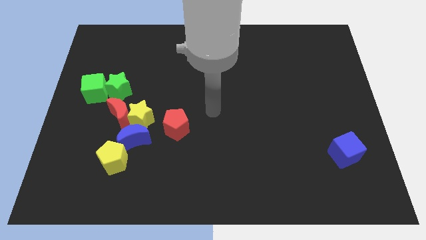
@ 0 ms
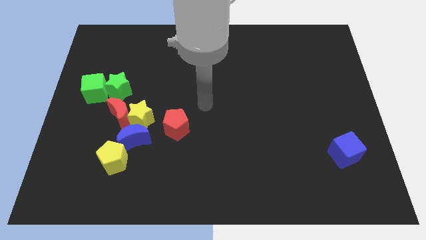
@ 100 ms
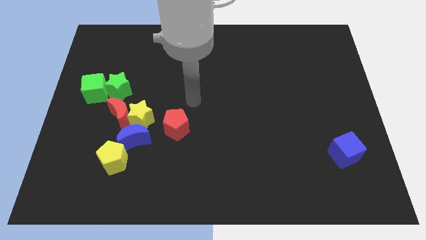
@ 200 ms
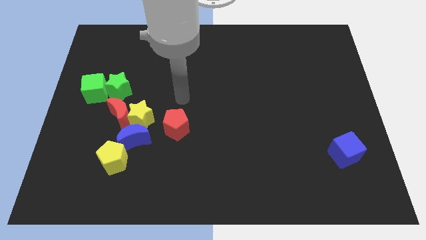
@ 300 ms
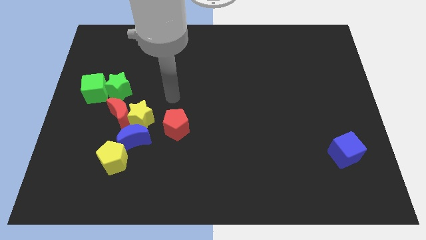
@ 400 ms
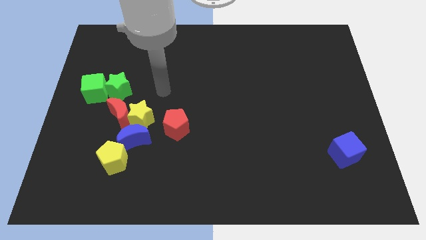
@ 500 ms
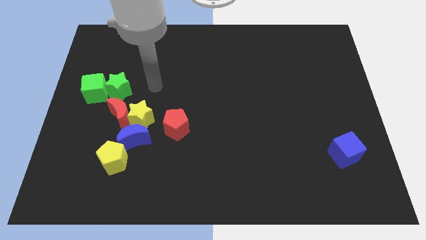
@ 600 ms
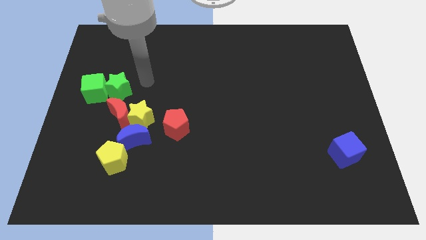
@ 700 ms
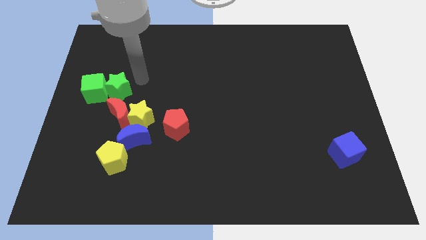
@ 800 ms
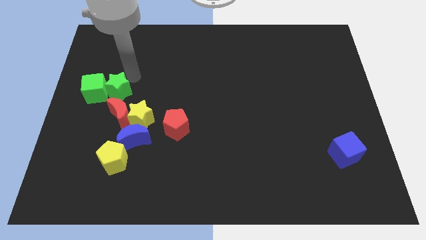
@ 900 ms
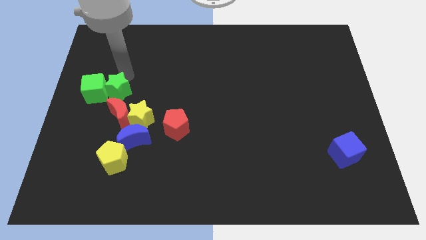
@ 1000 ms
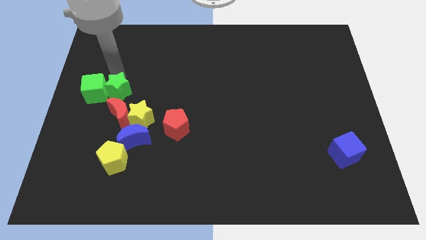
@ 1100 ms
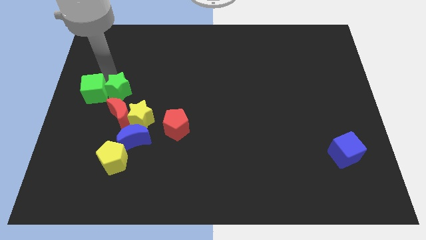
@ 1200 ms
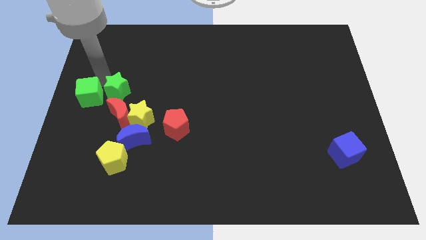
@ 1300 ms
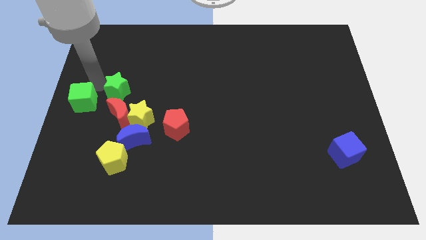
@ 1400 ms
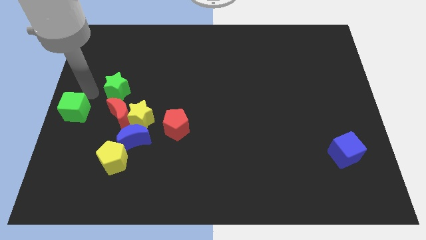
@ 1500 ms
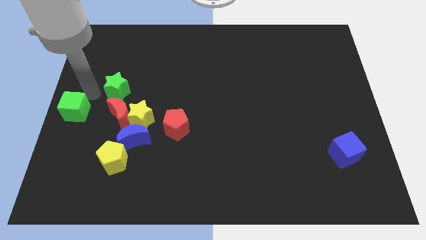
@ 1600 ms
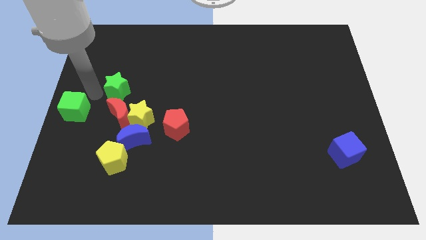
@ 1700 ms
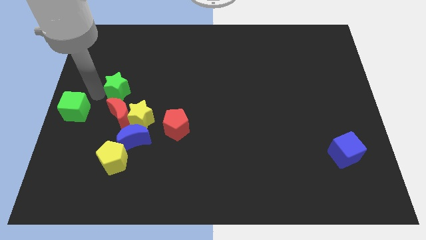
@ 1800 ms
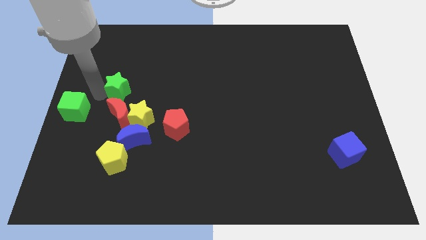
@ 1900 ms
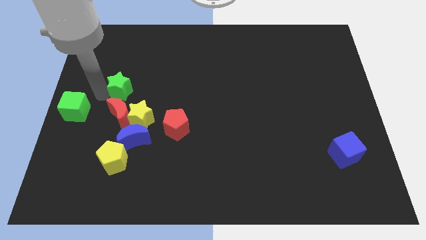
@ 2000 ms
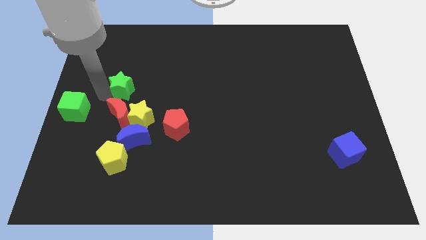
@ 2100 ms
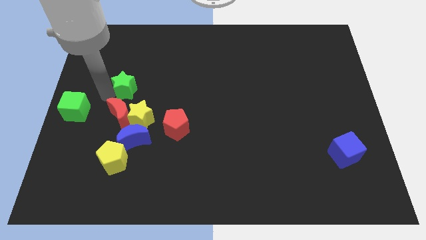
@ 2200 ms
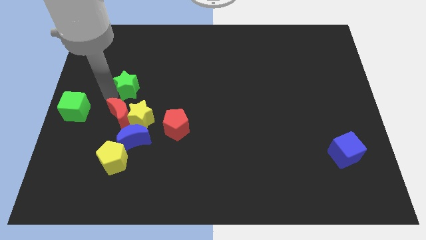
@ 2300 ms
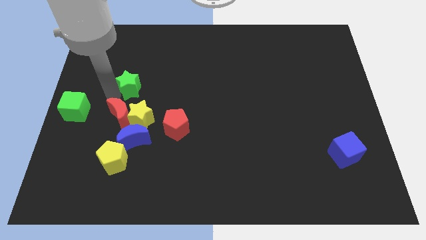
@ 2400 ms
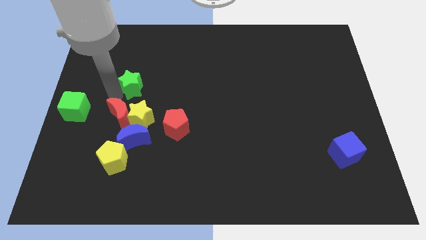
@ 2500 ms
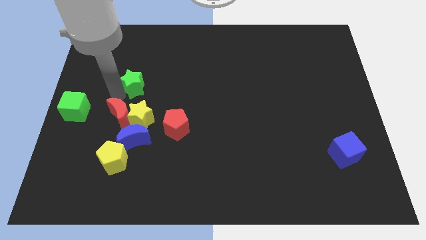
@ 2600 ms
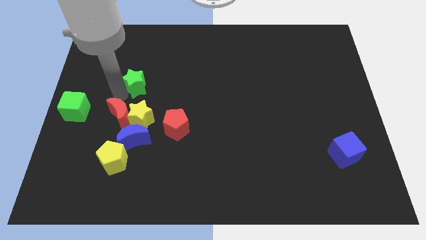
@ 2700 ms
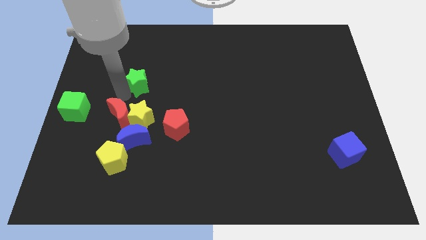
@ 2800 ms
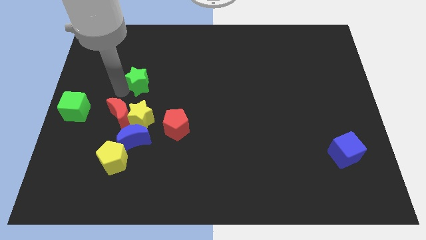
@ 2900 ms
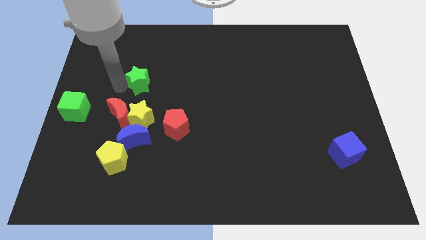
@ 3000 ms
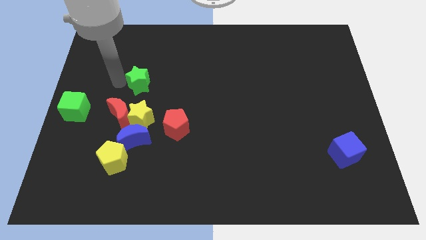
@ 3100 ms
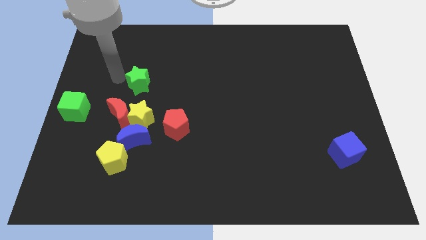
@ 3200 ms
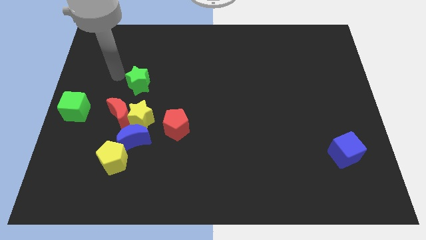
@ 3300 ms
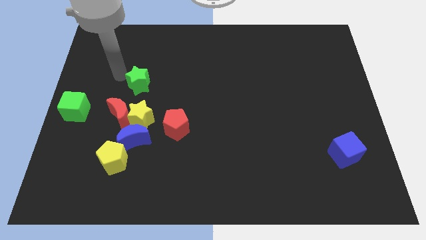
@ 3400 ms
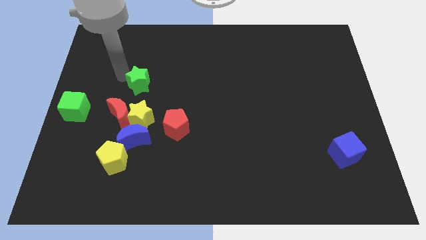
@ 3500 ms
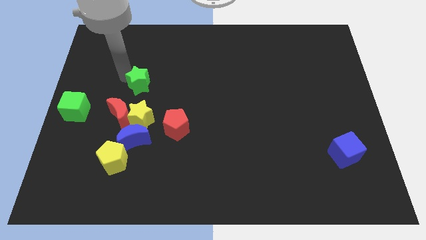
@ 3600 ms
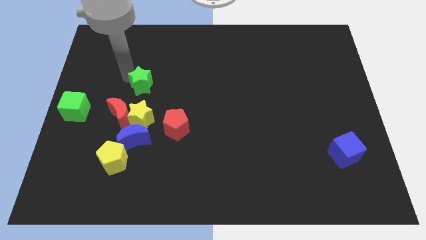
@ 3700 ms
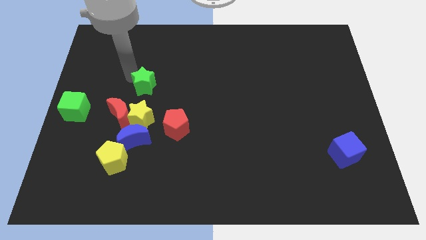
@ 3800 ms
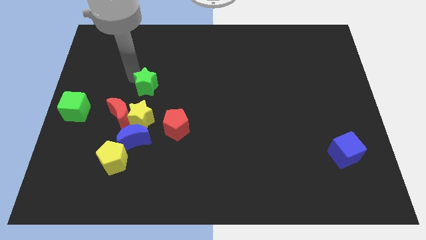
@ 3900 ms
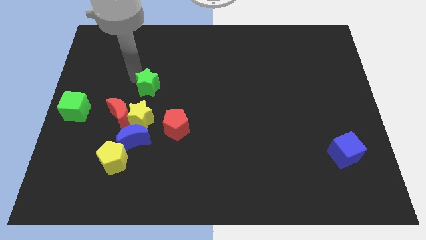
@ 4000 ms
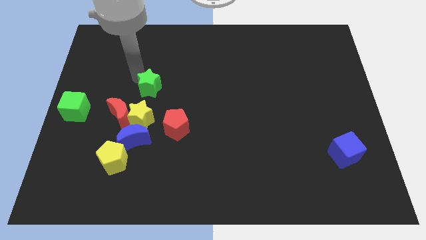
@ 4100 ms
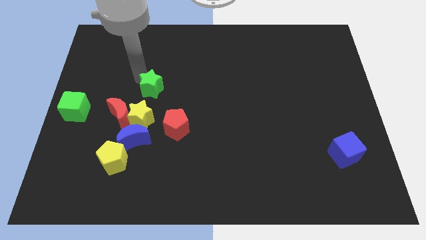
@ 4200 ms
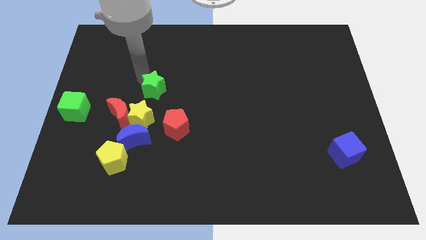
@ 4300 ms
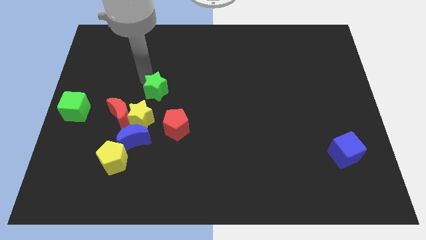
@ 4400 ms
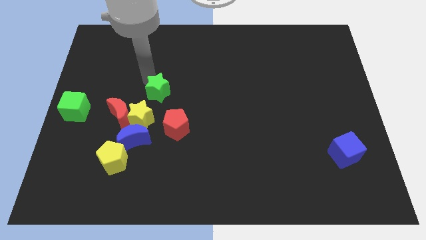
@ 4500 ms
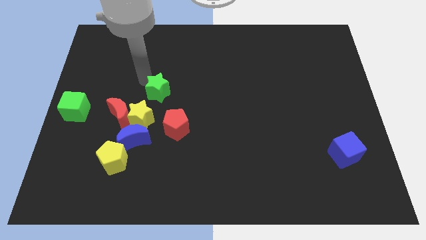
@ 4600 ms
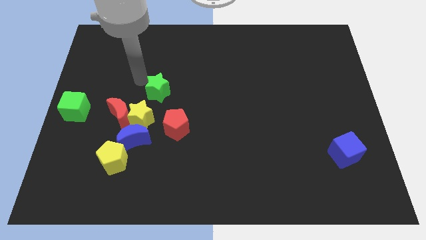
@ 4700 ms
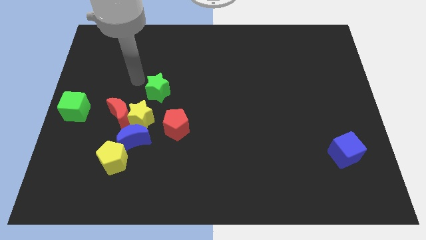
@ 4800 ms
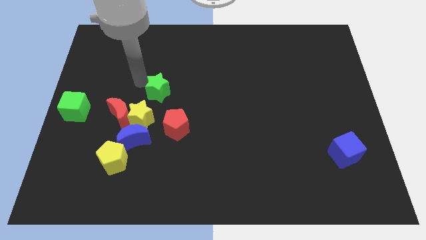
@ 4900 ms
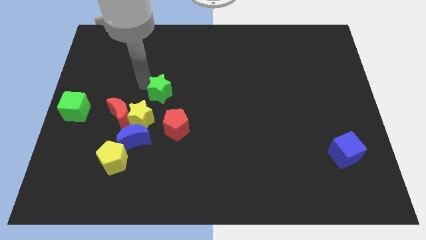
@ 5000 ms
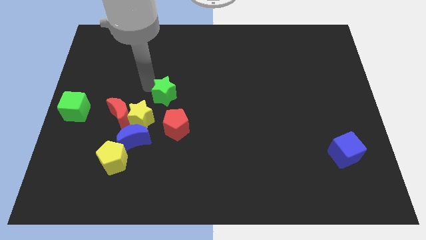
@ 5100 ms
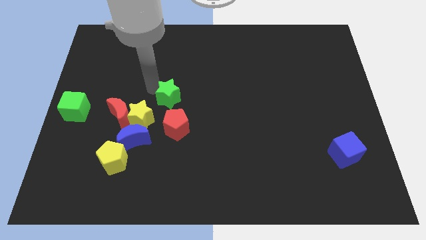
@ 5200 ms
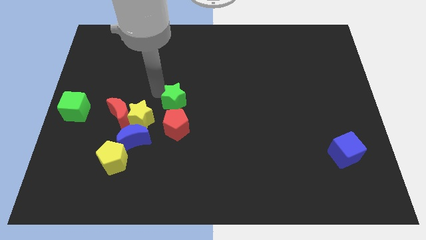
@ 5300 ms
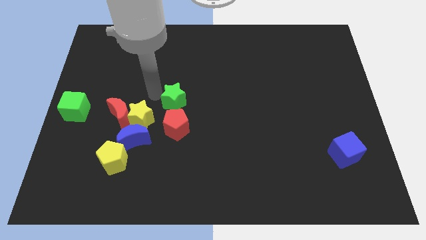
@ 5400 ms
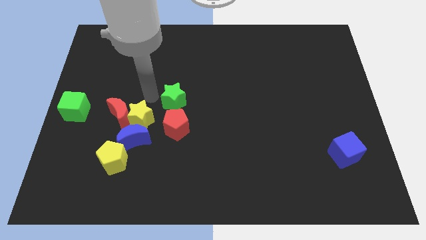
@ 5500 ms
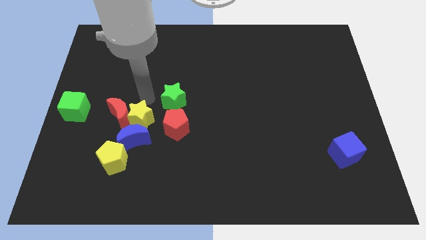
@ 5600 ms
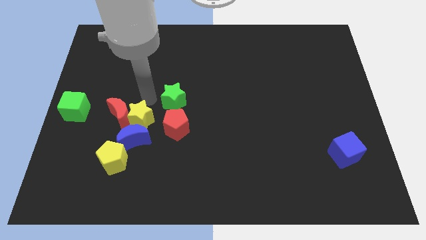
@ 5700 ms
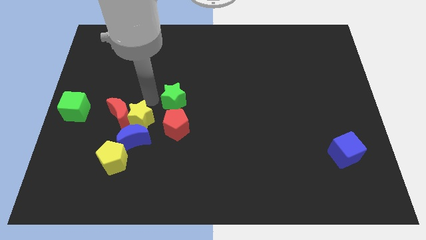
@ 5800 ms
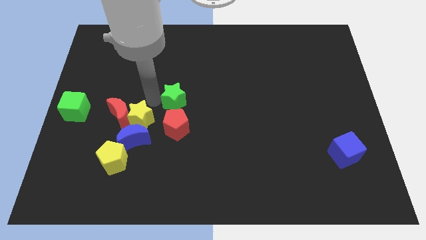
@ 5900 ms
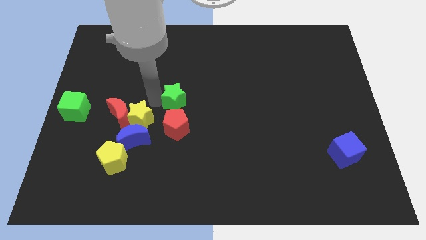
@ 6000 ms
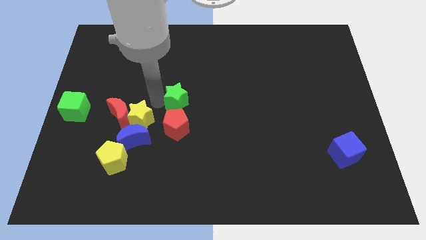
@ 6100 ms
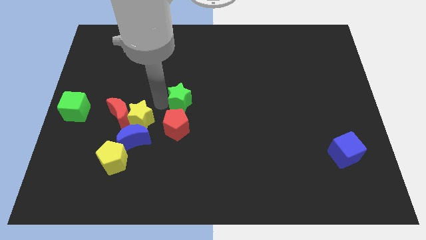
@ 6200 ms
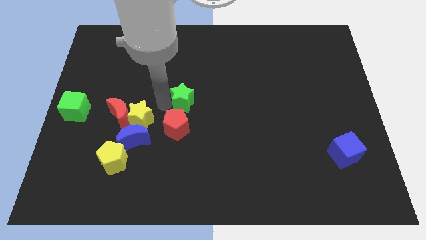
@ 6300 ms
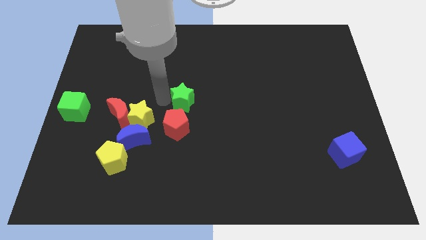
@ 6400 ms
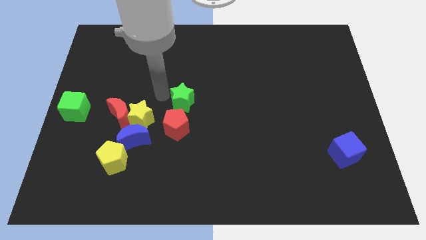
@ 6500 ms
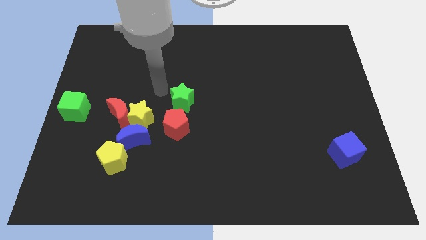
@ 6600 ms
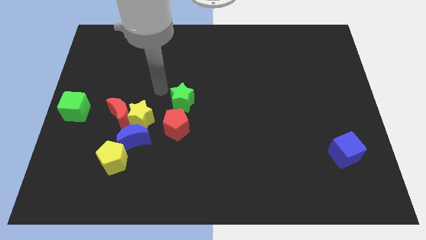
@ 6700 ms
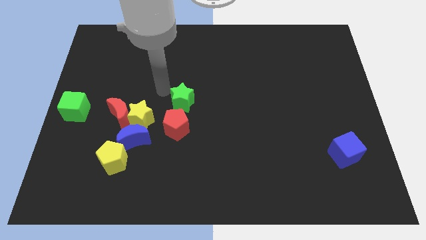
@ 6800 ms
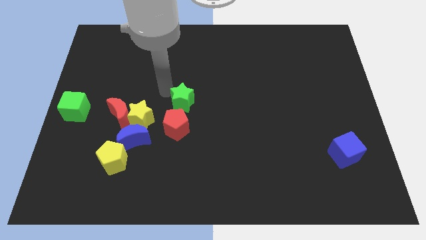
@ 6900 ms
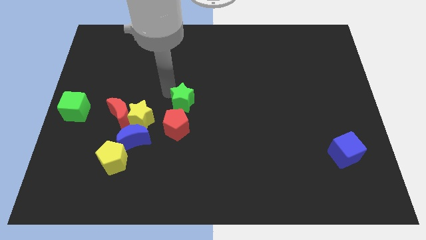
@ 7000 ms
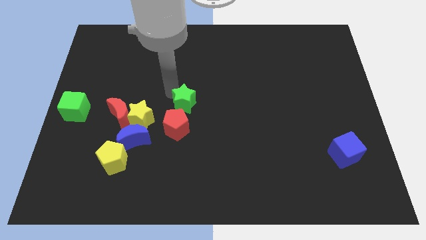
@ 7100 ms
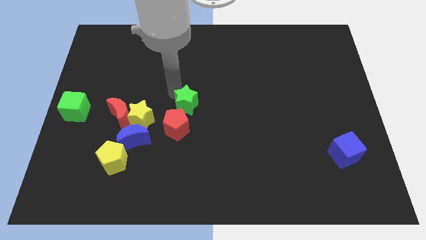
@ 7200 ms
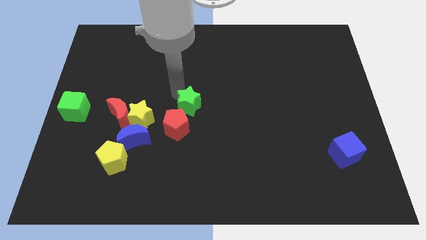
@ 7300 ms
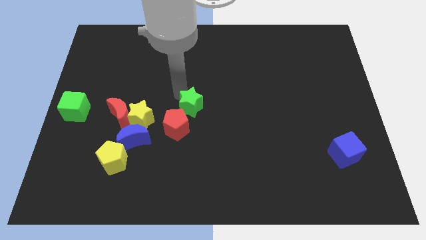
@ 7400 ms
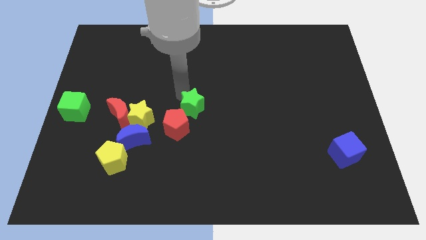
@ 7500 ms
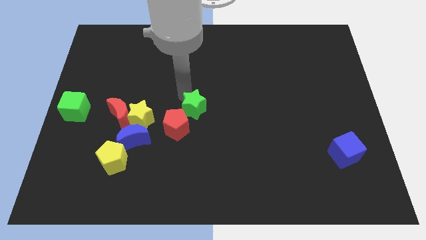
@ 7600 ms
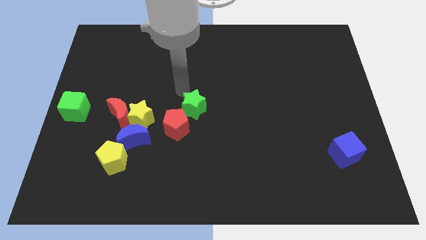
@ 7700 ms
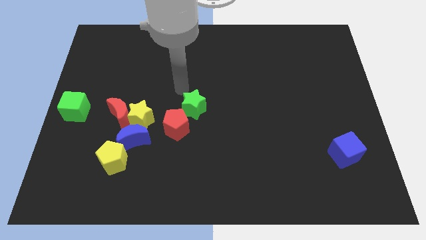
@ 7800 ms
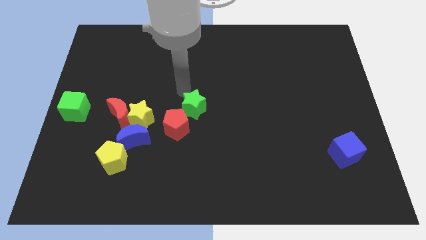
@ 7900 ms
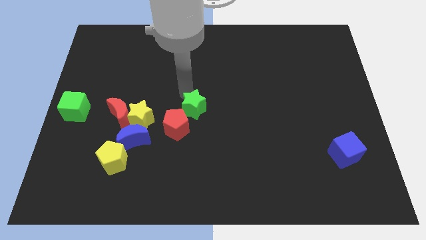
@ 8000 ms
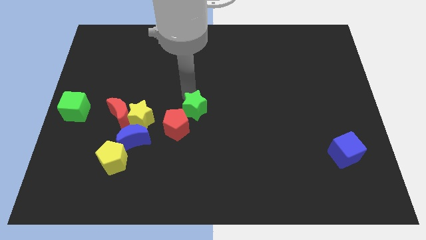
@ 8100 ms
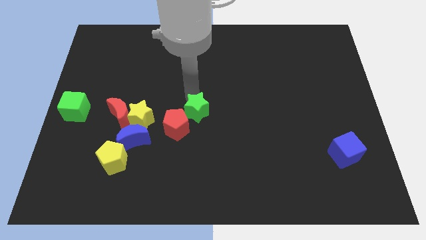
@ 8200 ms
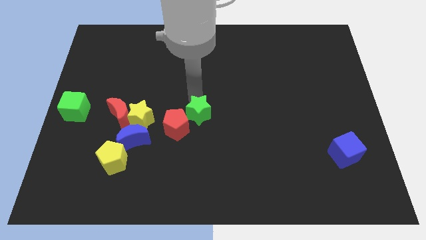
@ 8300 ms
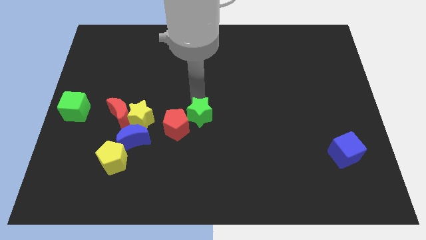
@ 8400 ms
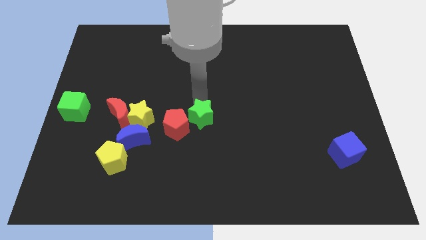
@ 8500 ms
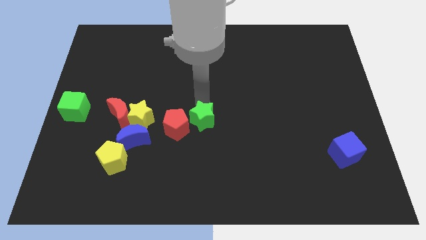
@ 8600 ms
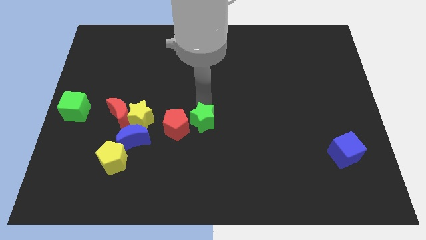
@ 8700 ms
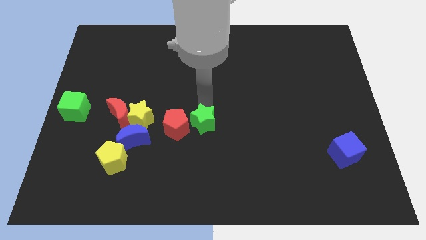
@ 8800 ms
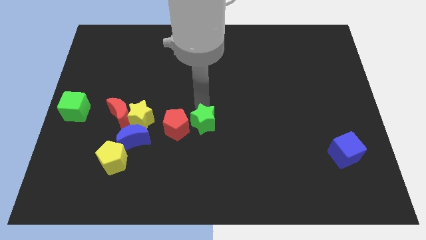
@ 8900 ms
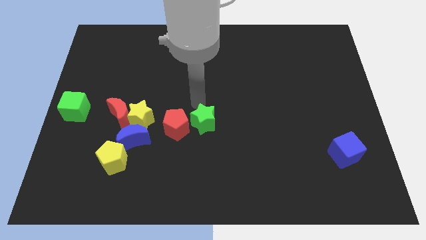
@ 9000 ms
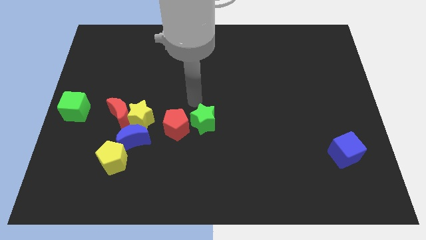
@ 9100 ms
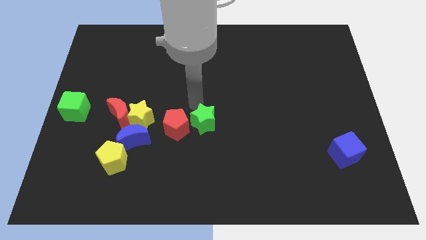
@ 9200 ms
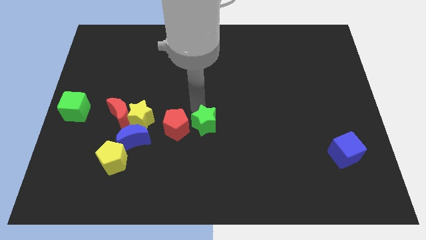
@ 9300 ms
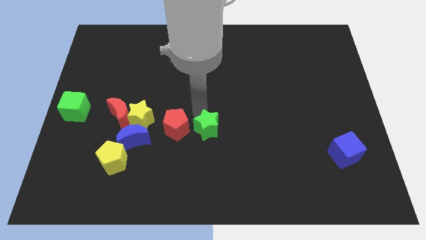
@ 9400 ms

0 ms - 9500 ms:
slide the green star down and right
